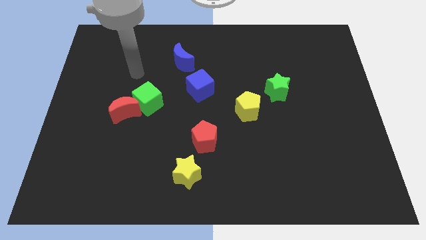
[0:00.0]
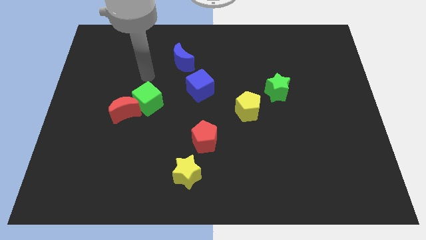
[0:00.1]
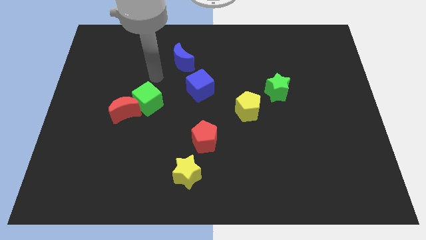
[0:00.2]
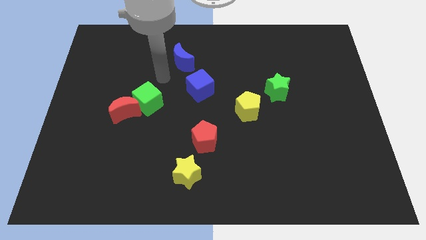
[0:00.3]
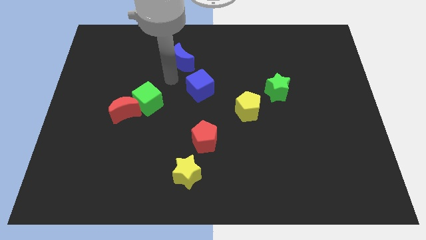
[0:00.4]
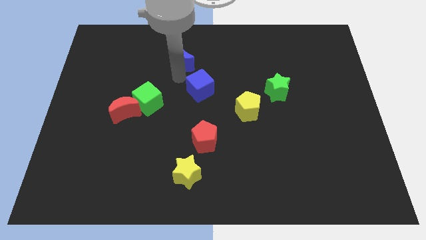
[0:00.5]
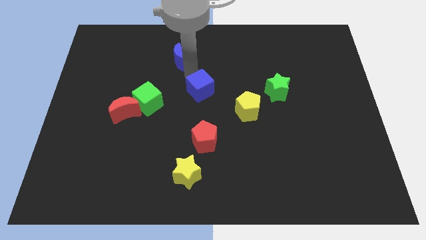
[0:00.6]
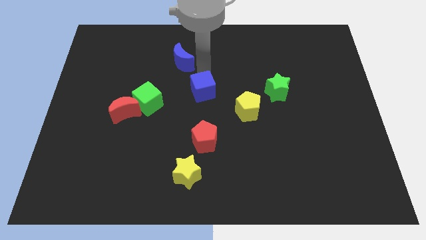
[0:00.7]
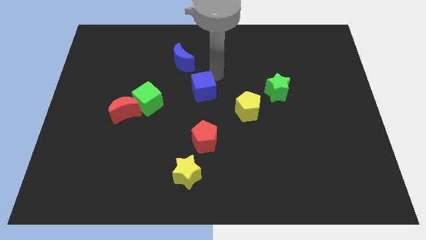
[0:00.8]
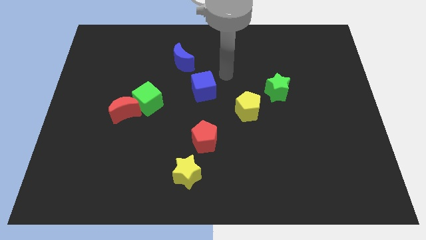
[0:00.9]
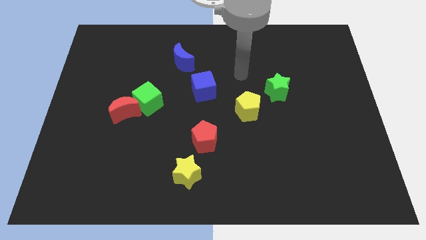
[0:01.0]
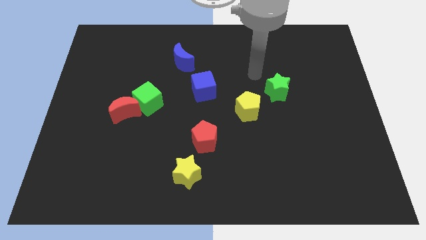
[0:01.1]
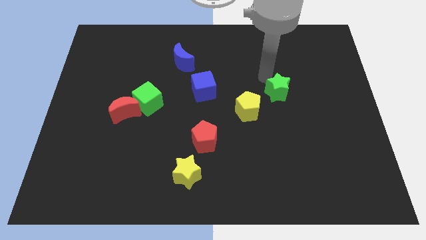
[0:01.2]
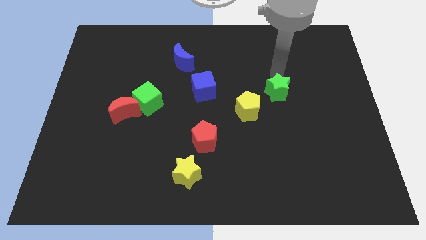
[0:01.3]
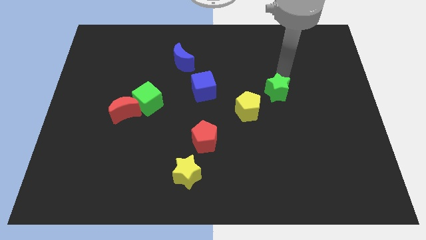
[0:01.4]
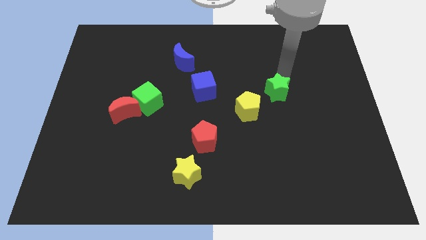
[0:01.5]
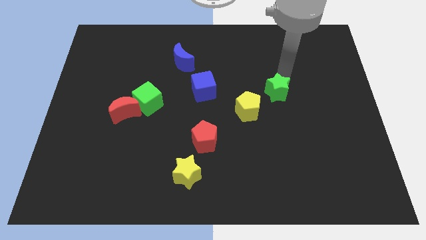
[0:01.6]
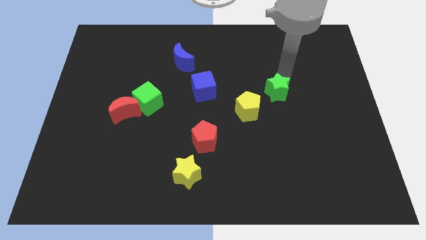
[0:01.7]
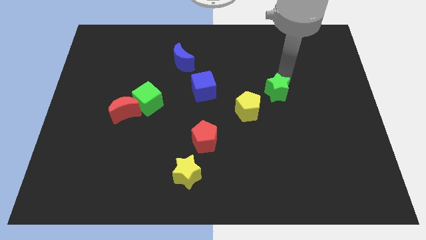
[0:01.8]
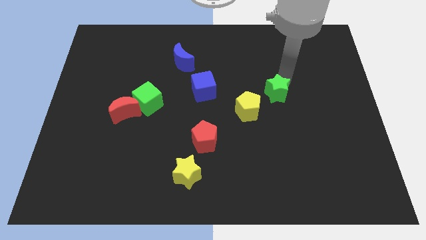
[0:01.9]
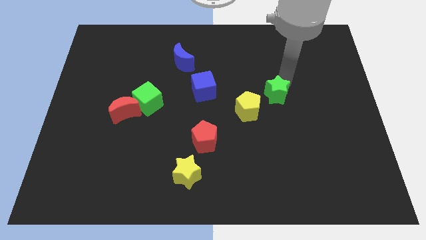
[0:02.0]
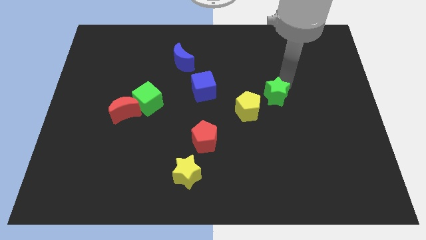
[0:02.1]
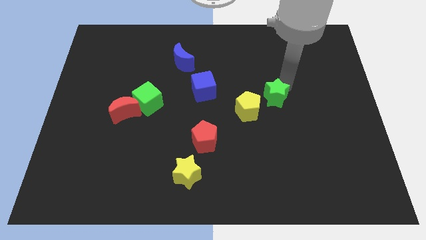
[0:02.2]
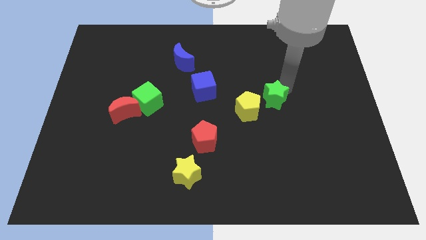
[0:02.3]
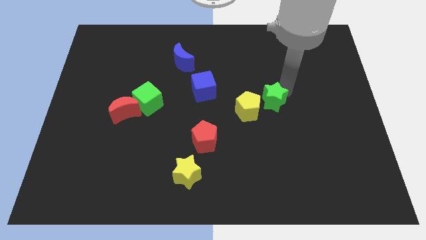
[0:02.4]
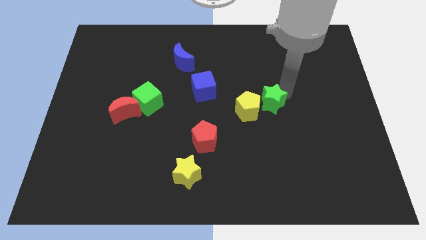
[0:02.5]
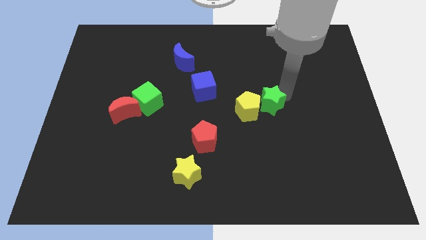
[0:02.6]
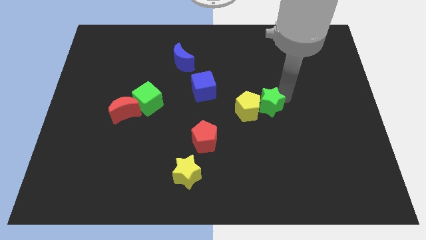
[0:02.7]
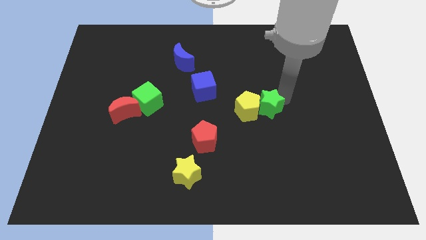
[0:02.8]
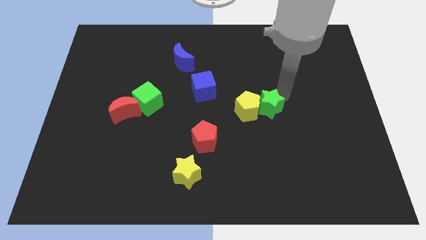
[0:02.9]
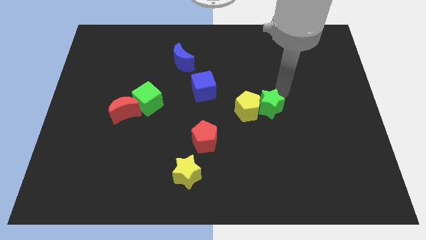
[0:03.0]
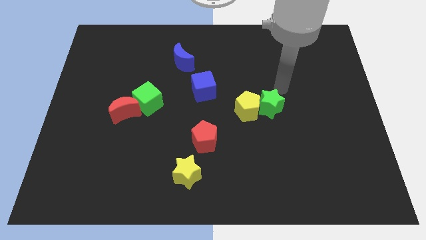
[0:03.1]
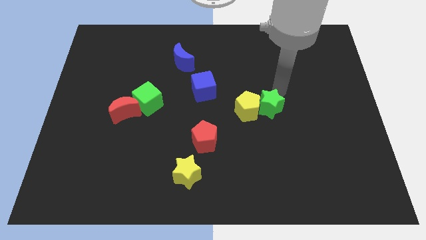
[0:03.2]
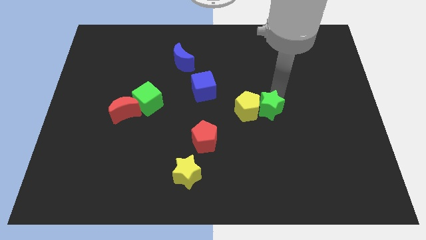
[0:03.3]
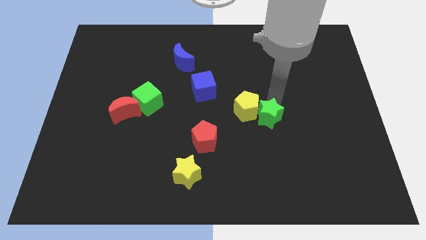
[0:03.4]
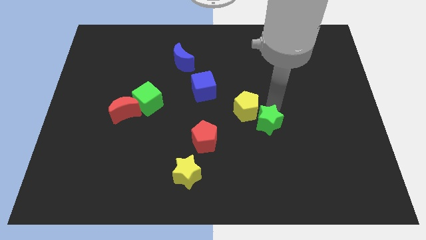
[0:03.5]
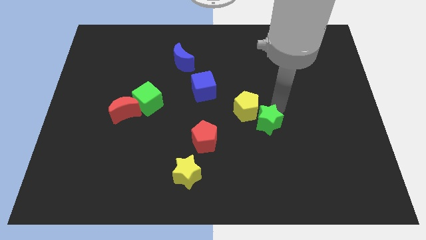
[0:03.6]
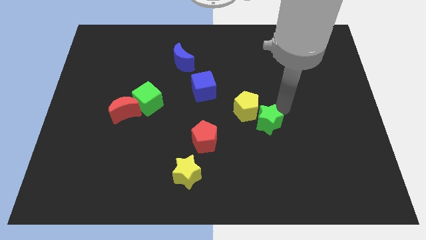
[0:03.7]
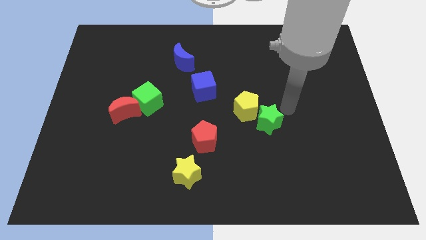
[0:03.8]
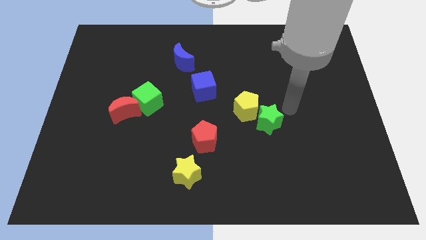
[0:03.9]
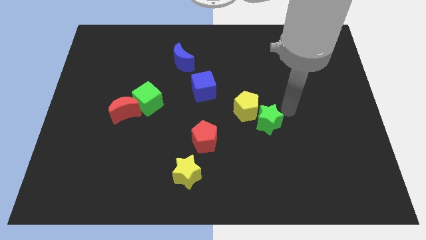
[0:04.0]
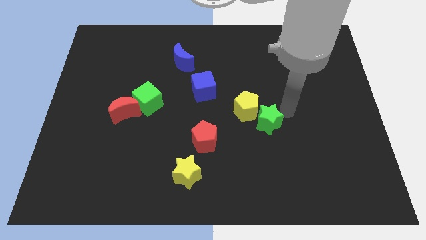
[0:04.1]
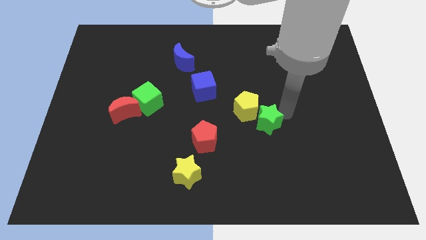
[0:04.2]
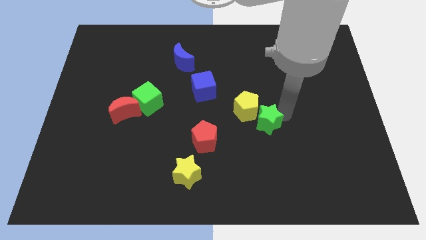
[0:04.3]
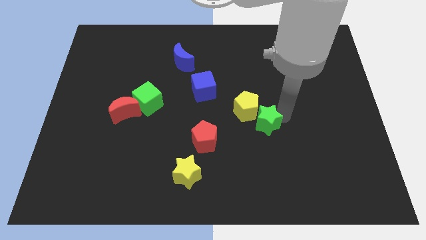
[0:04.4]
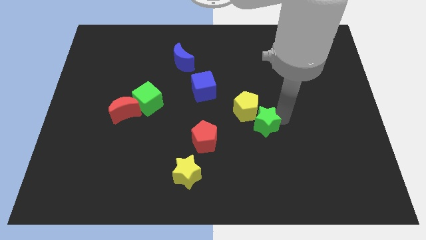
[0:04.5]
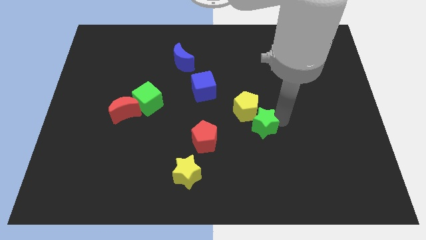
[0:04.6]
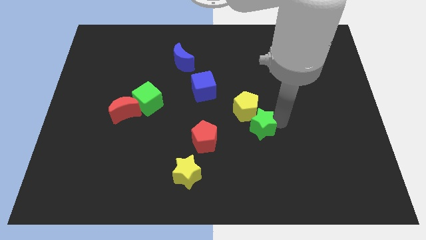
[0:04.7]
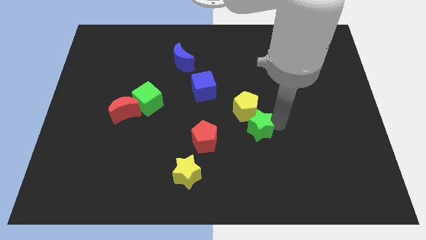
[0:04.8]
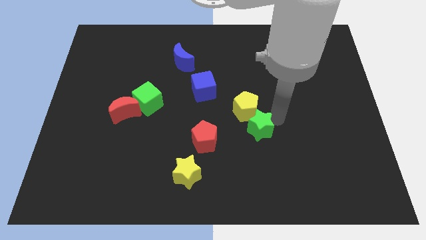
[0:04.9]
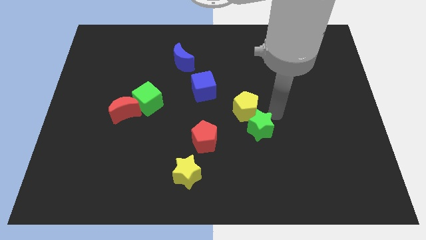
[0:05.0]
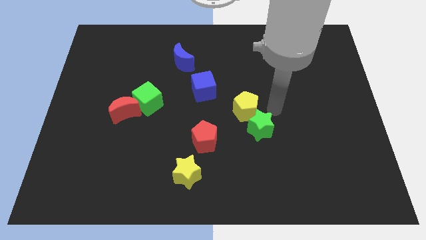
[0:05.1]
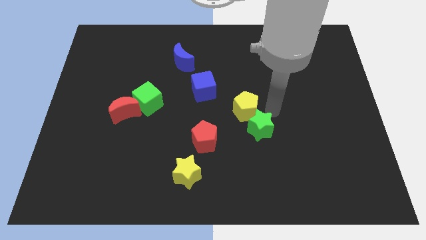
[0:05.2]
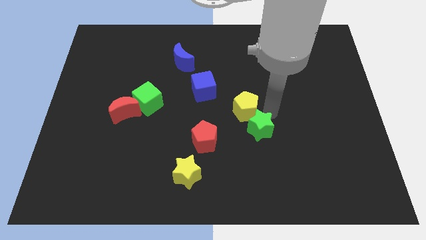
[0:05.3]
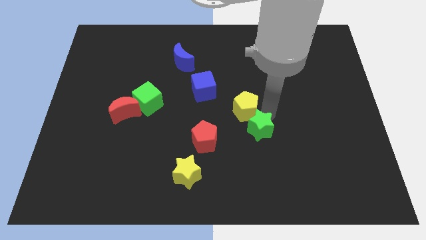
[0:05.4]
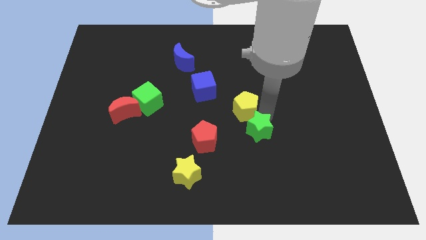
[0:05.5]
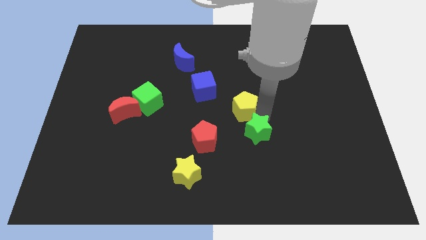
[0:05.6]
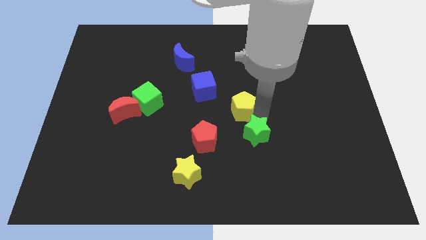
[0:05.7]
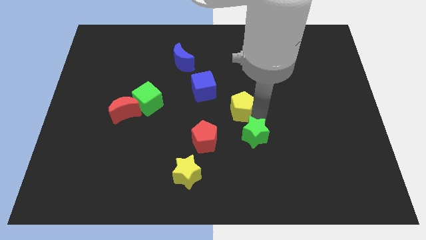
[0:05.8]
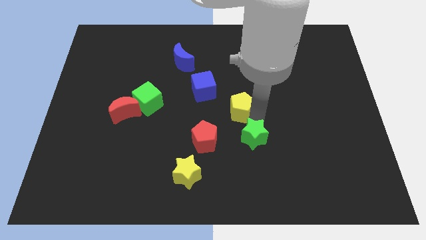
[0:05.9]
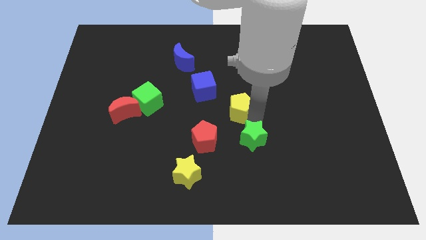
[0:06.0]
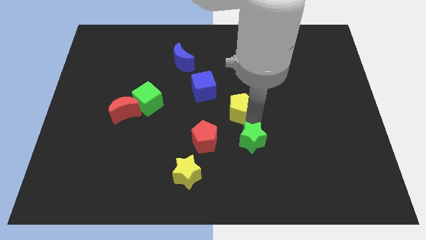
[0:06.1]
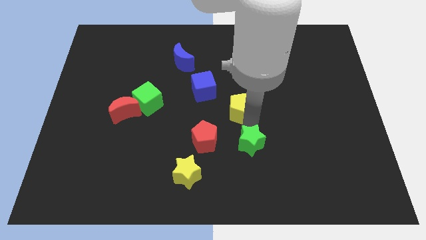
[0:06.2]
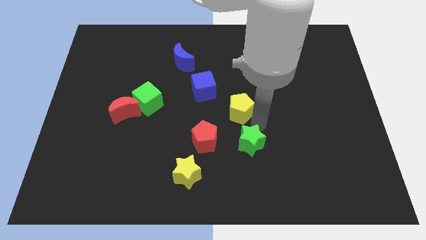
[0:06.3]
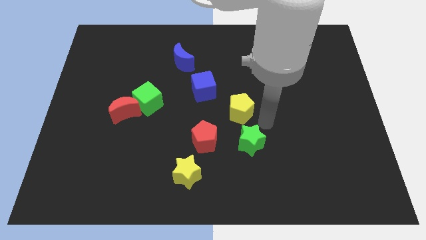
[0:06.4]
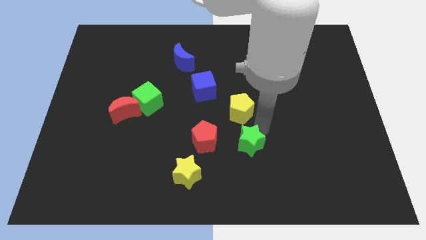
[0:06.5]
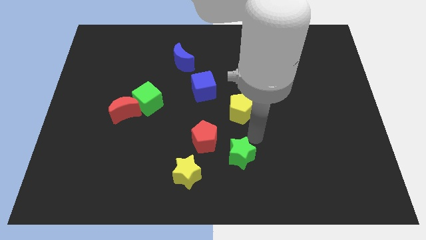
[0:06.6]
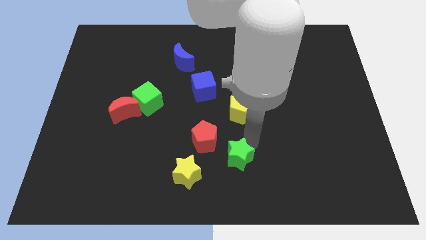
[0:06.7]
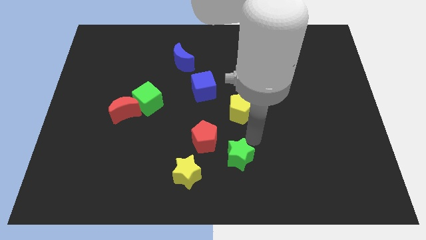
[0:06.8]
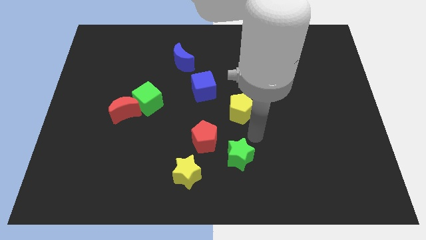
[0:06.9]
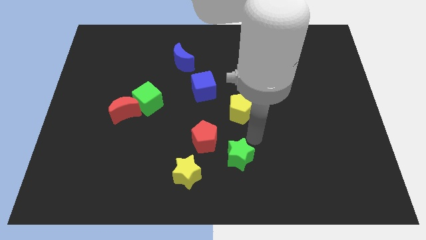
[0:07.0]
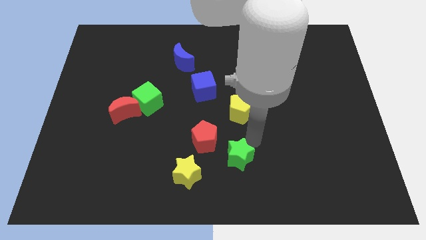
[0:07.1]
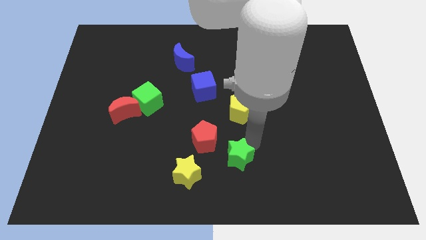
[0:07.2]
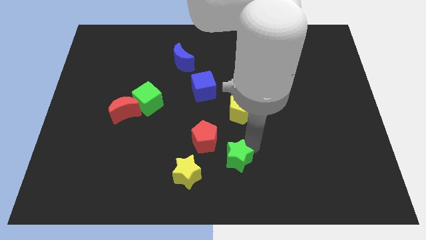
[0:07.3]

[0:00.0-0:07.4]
move the green star to the bottom

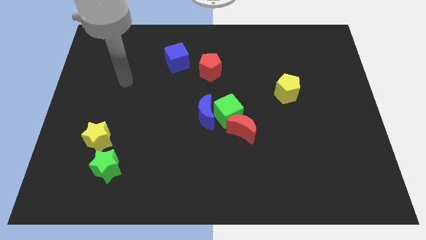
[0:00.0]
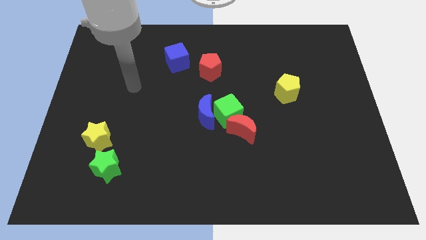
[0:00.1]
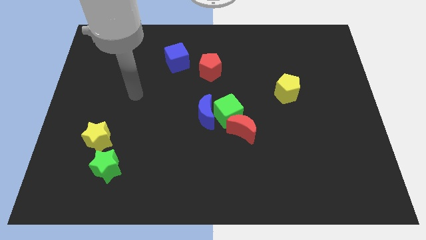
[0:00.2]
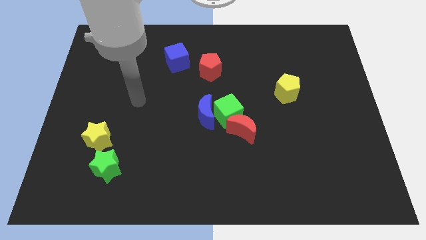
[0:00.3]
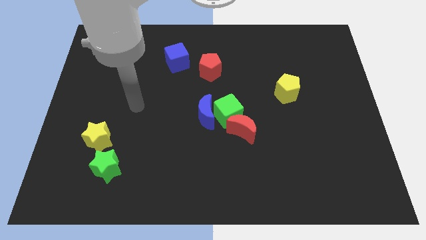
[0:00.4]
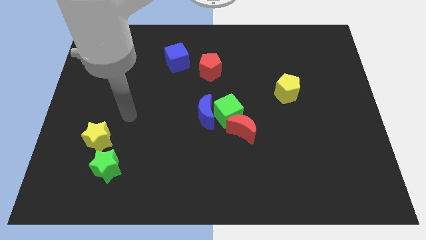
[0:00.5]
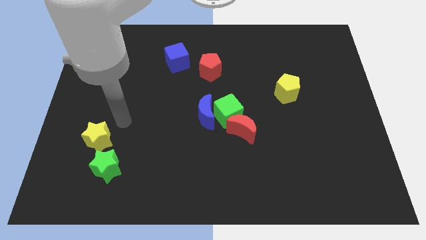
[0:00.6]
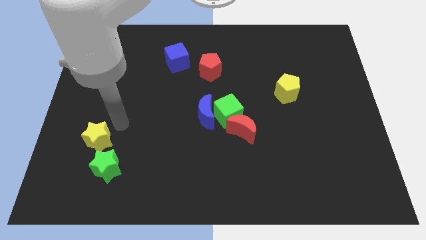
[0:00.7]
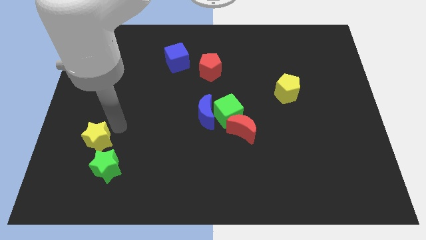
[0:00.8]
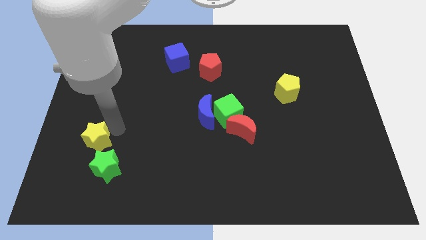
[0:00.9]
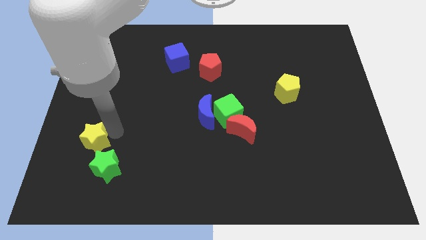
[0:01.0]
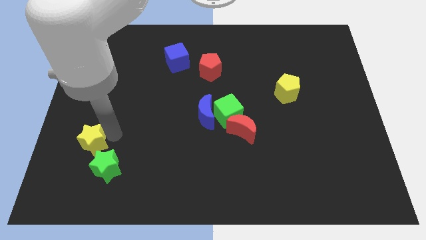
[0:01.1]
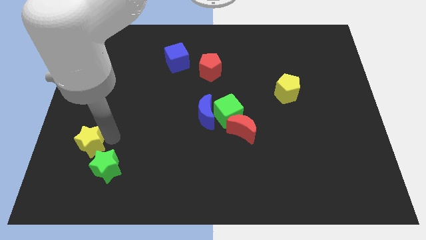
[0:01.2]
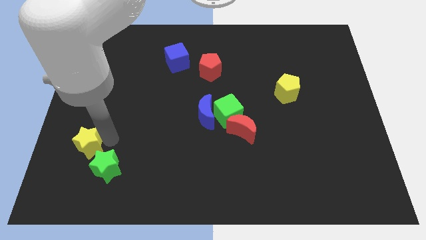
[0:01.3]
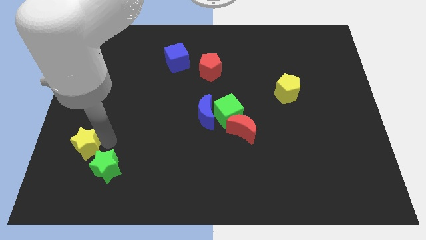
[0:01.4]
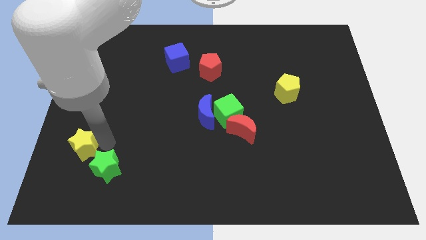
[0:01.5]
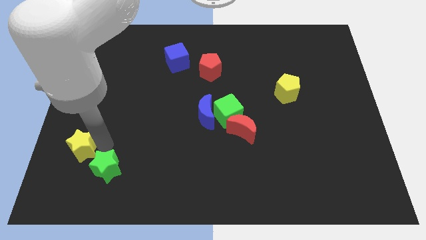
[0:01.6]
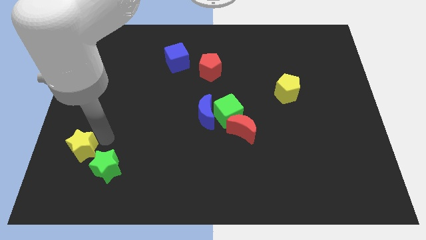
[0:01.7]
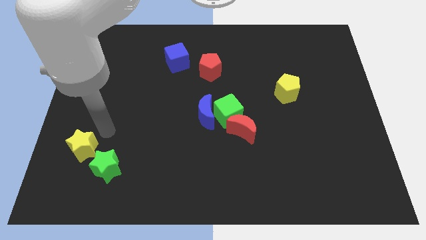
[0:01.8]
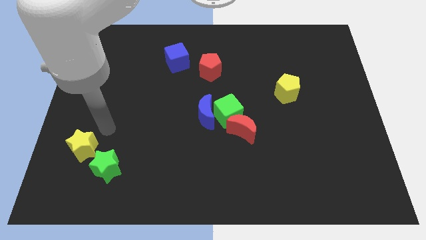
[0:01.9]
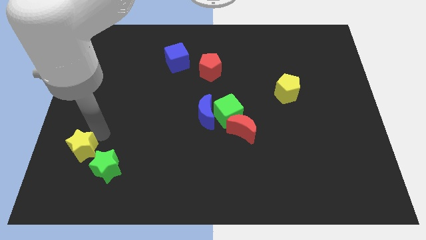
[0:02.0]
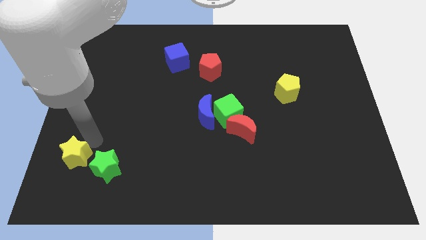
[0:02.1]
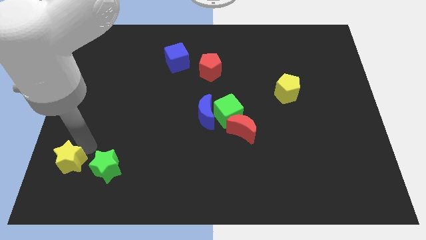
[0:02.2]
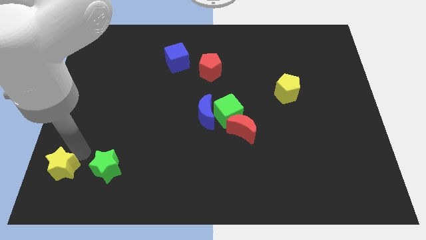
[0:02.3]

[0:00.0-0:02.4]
slide the yellow star to the bottom left
